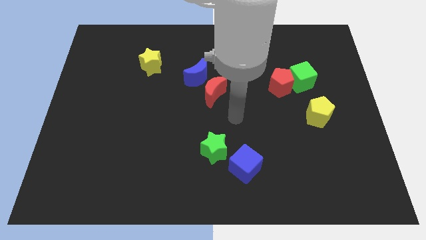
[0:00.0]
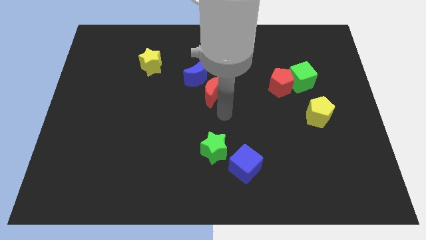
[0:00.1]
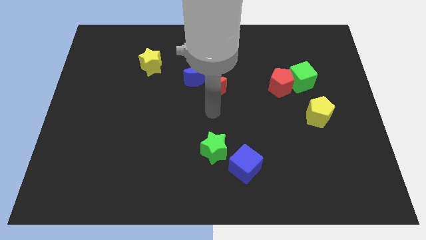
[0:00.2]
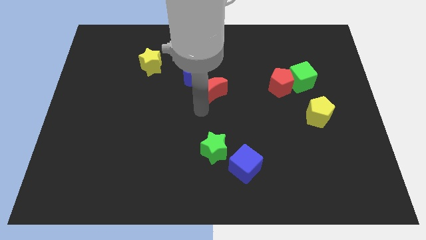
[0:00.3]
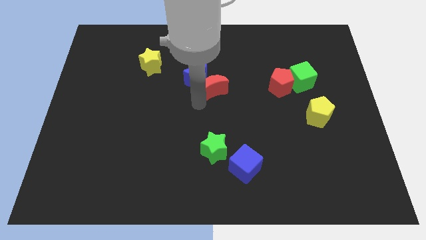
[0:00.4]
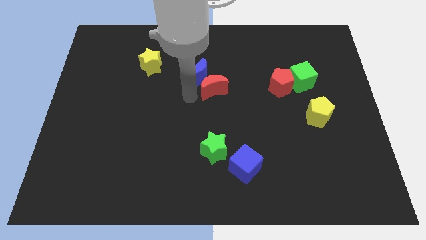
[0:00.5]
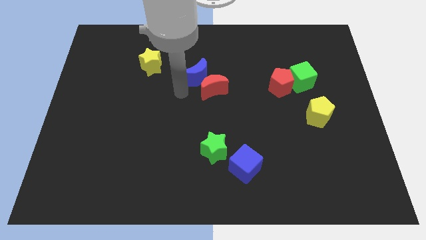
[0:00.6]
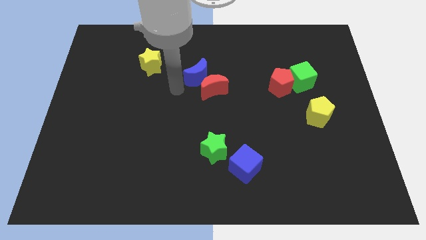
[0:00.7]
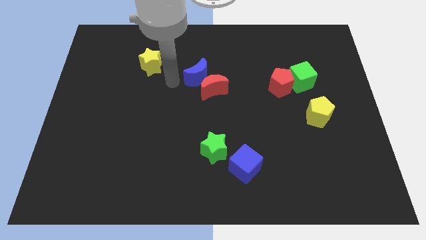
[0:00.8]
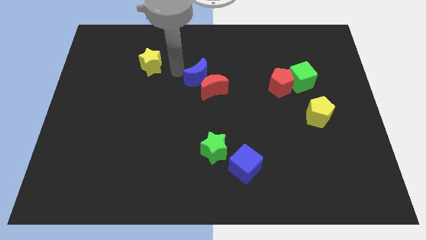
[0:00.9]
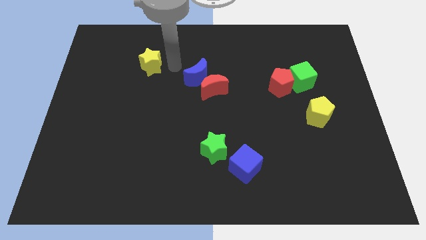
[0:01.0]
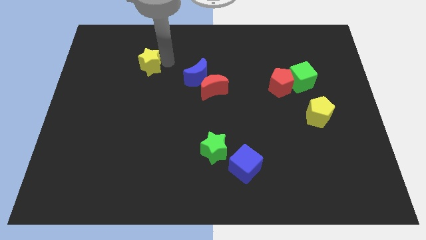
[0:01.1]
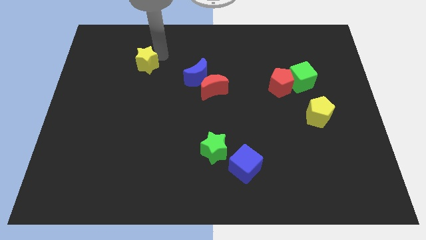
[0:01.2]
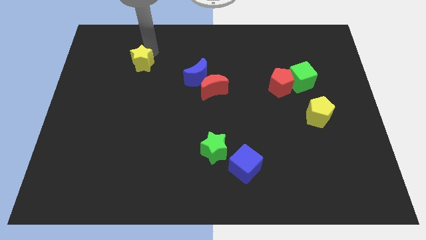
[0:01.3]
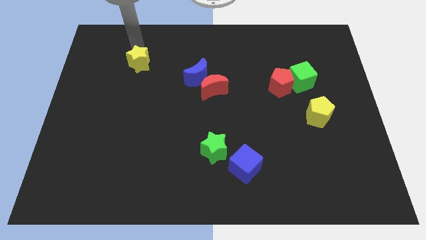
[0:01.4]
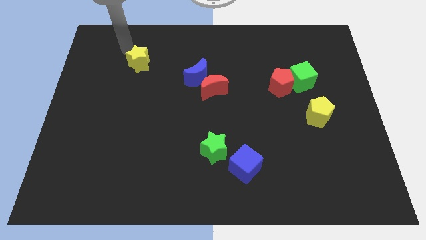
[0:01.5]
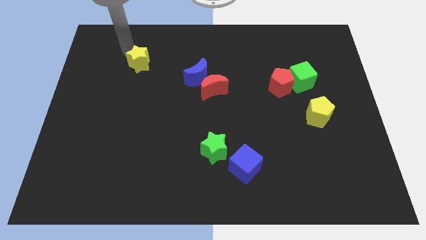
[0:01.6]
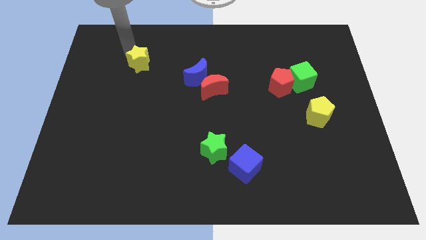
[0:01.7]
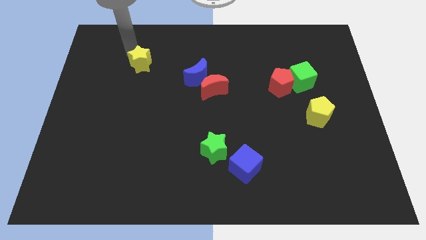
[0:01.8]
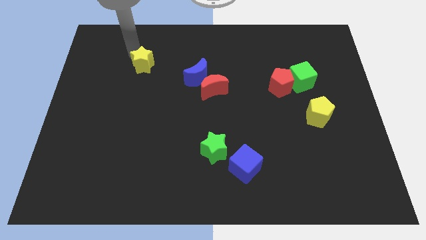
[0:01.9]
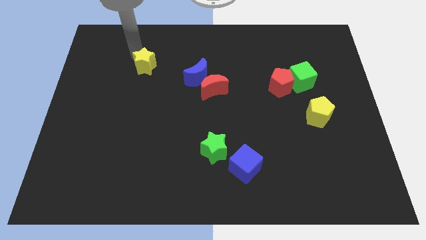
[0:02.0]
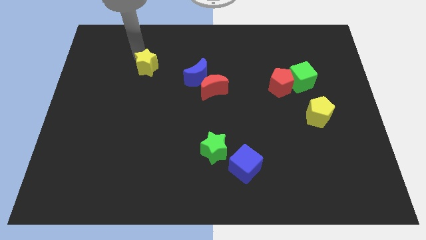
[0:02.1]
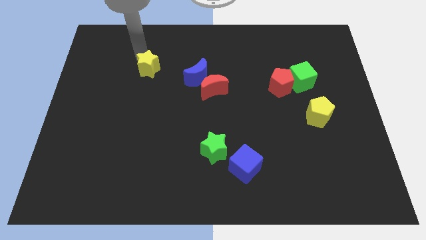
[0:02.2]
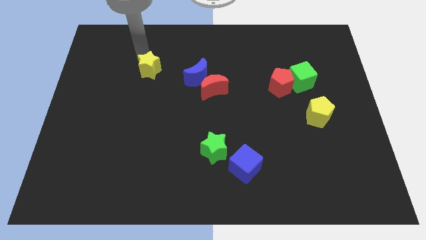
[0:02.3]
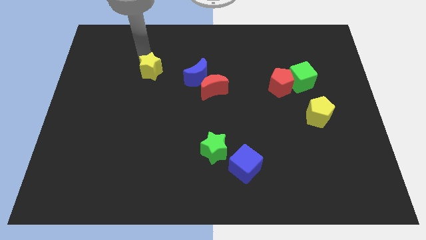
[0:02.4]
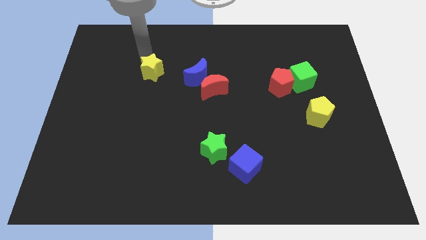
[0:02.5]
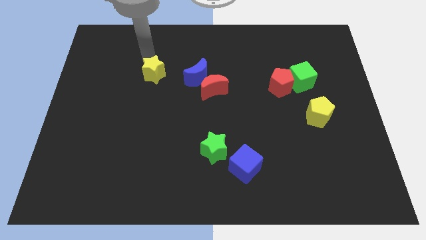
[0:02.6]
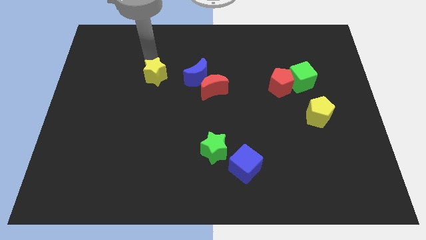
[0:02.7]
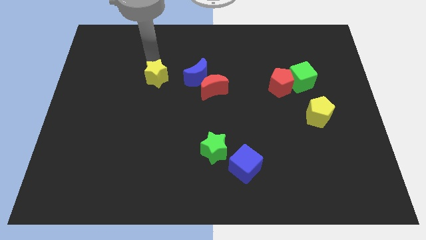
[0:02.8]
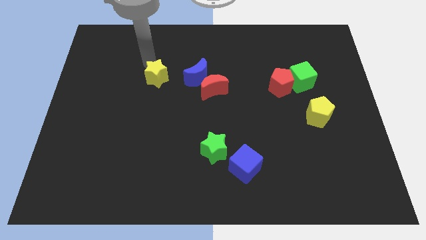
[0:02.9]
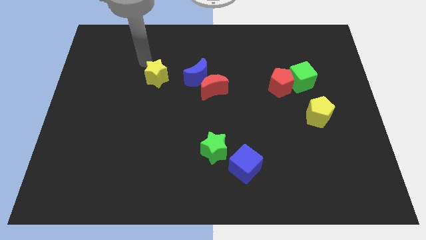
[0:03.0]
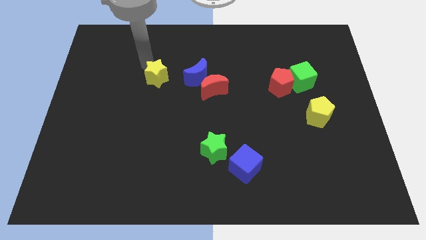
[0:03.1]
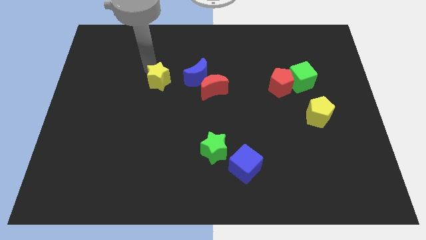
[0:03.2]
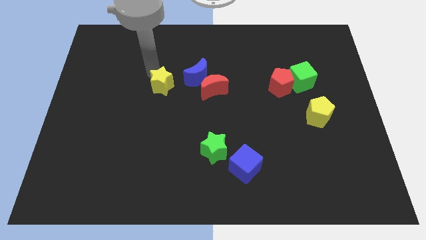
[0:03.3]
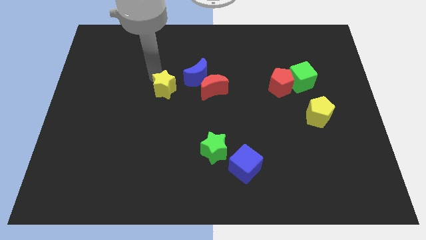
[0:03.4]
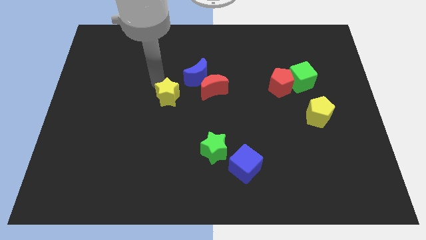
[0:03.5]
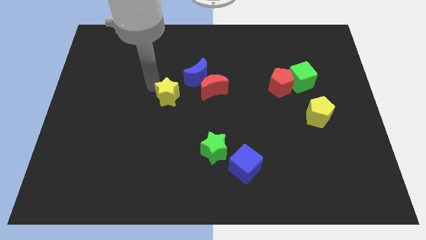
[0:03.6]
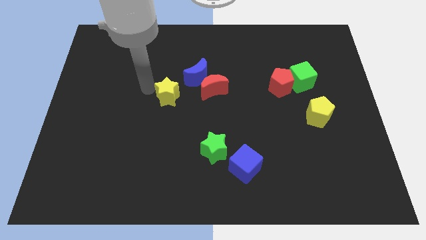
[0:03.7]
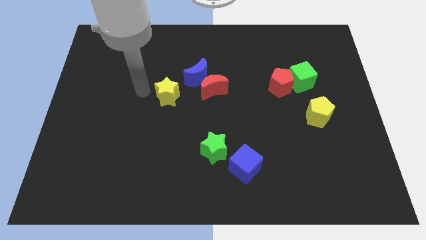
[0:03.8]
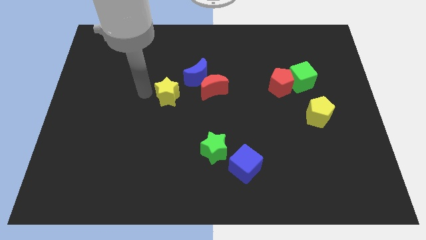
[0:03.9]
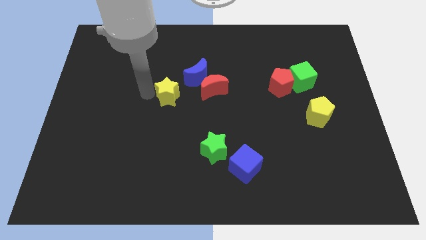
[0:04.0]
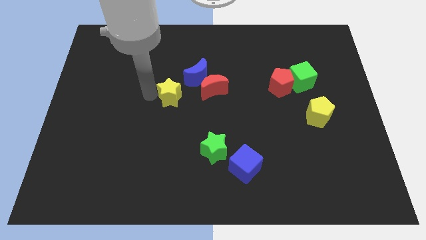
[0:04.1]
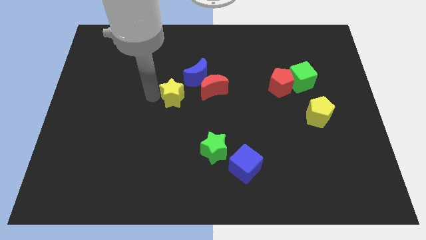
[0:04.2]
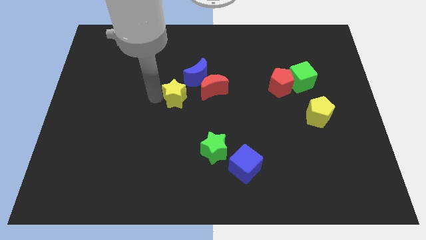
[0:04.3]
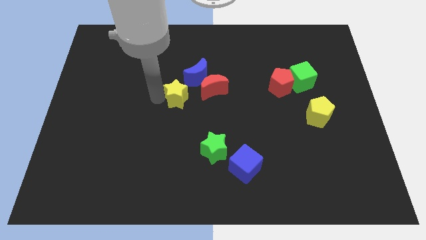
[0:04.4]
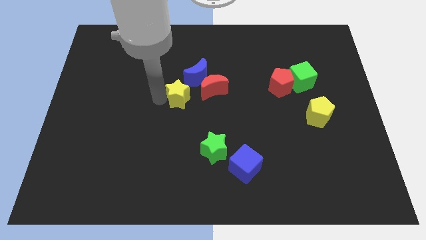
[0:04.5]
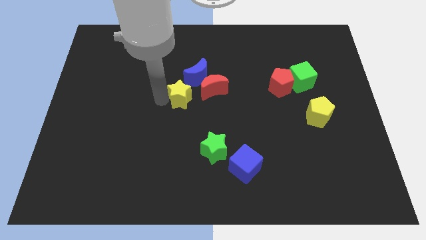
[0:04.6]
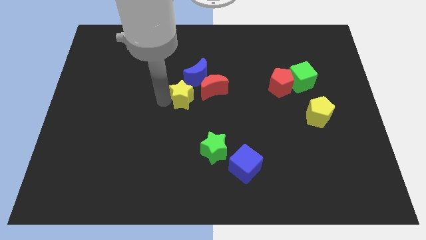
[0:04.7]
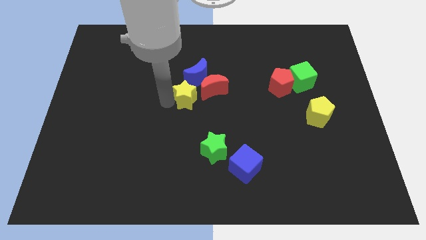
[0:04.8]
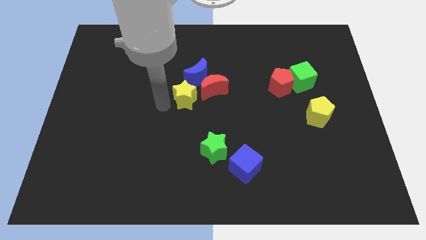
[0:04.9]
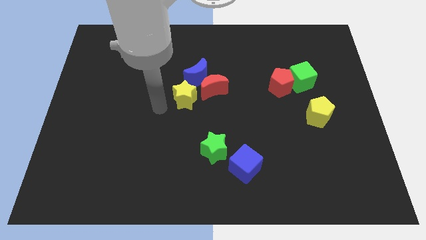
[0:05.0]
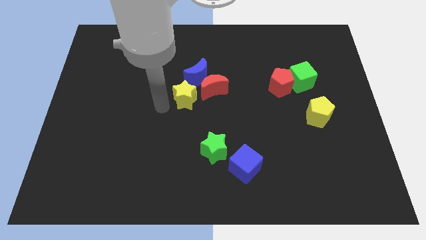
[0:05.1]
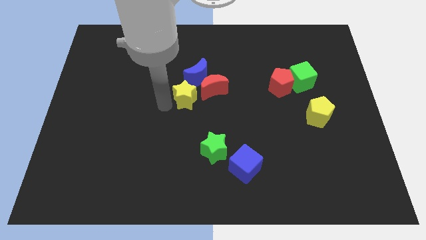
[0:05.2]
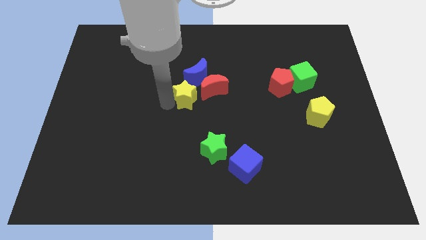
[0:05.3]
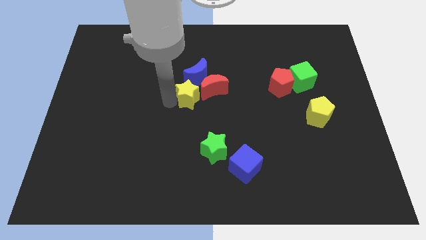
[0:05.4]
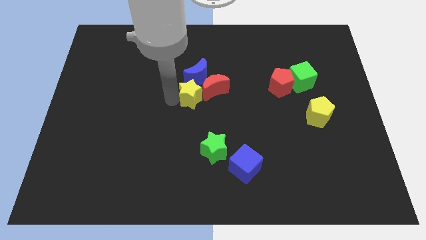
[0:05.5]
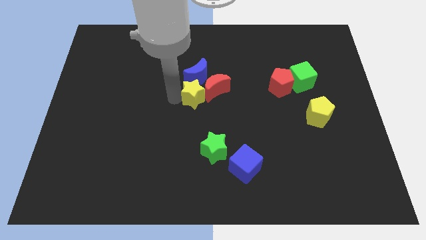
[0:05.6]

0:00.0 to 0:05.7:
slide the yellow star towards the red moon

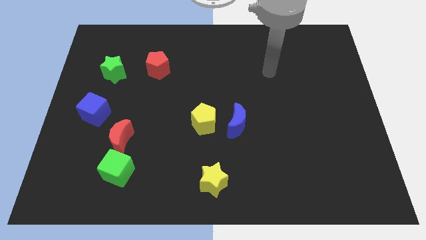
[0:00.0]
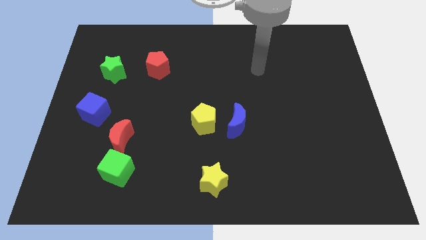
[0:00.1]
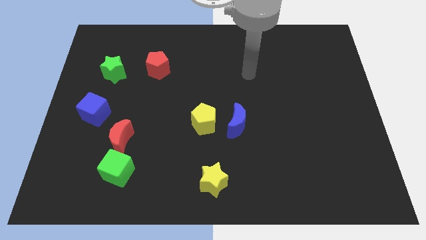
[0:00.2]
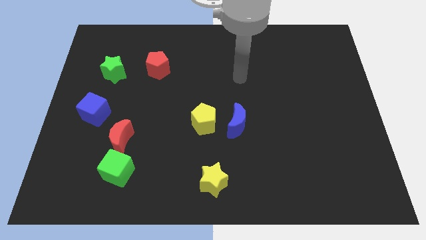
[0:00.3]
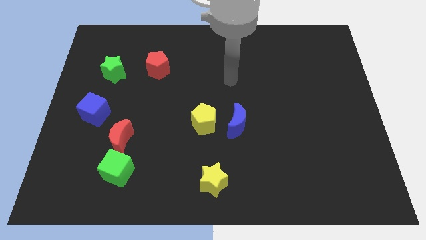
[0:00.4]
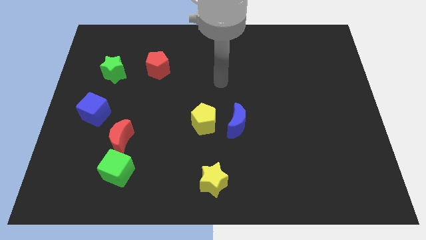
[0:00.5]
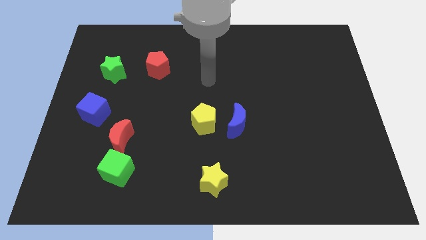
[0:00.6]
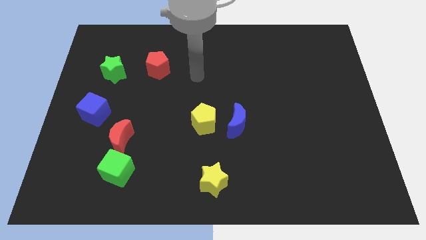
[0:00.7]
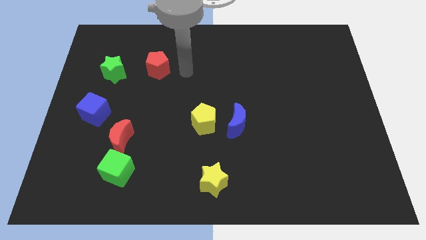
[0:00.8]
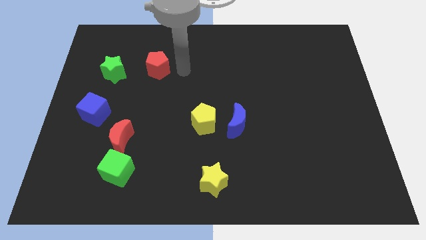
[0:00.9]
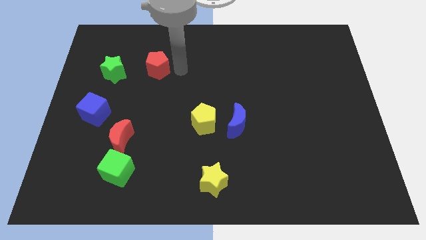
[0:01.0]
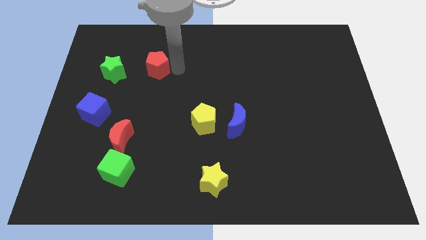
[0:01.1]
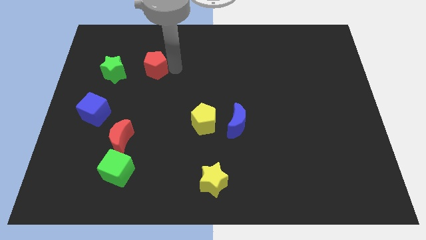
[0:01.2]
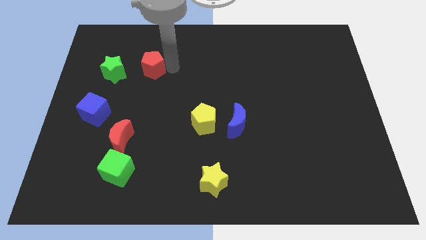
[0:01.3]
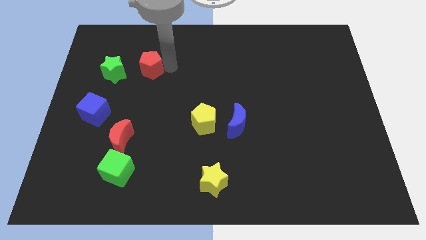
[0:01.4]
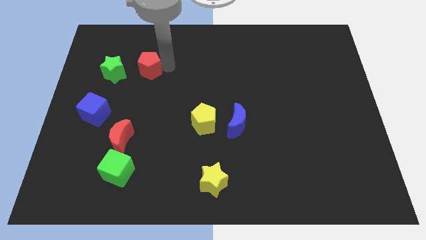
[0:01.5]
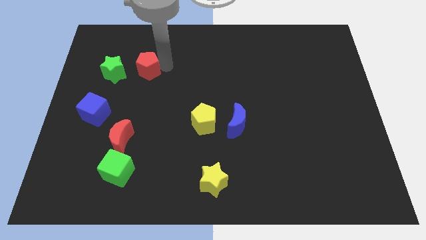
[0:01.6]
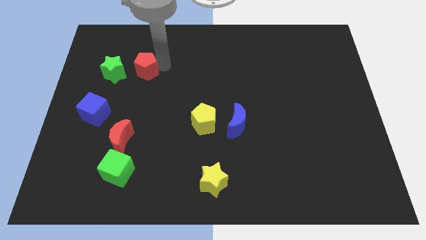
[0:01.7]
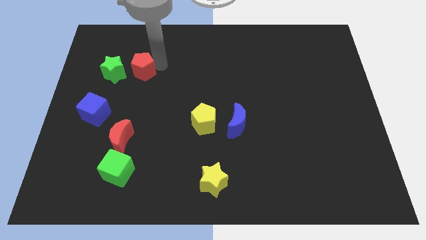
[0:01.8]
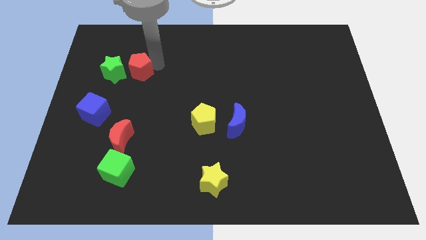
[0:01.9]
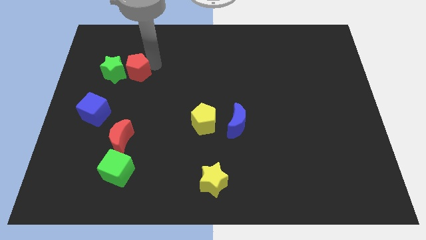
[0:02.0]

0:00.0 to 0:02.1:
put the red pentagon to the green star
